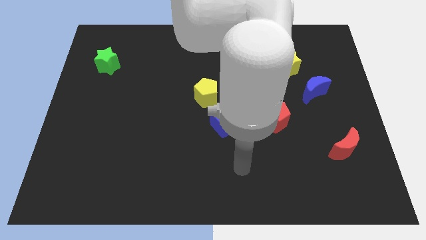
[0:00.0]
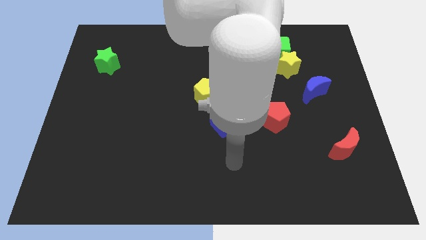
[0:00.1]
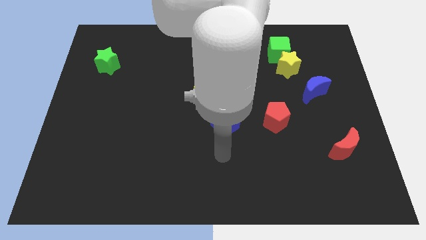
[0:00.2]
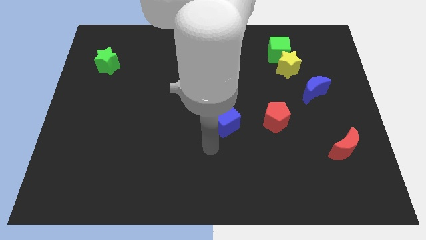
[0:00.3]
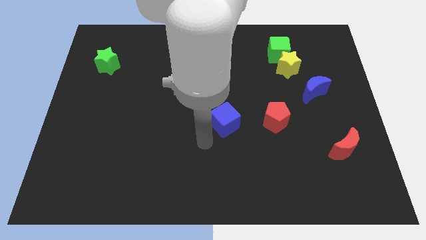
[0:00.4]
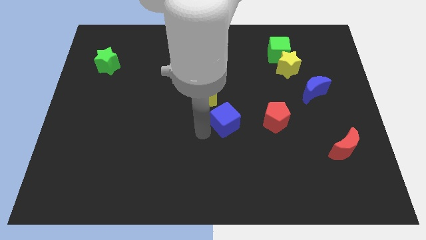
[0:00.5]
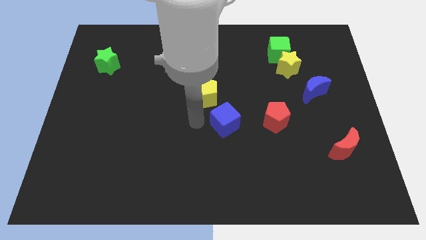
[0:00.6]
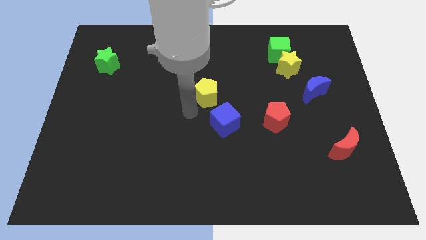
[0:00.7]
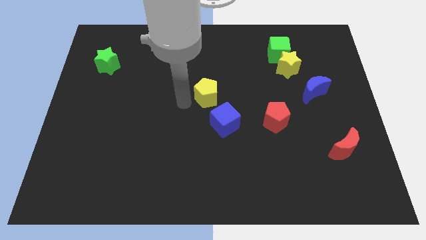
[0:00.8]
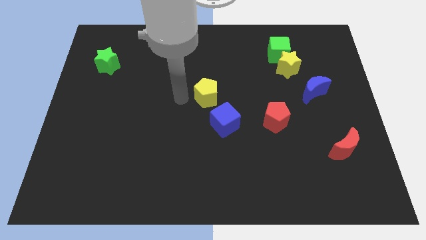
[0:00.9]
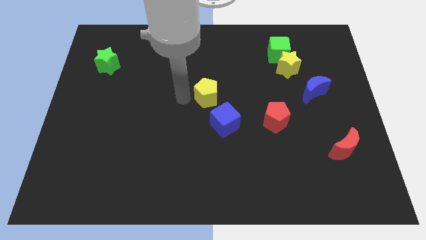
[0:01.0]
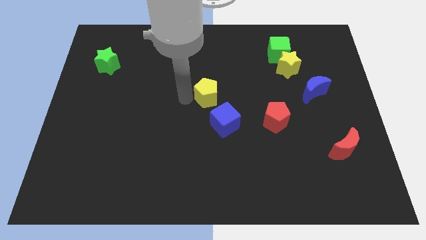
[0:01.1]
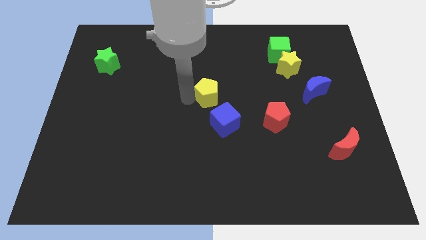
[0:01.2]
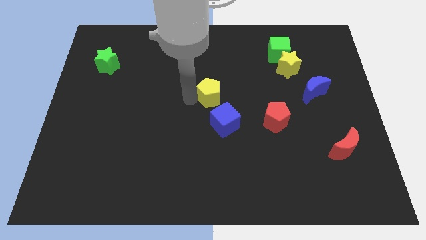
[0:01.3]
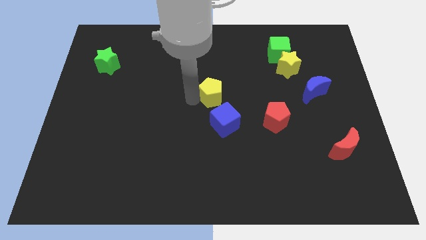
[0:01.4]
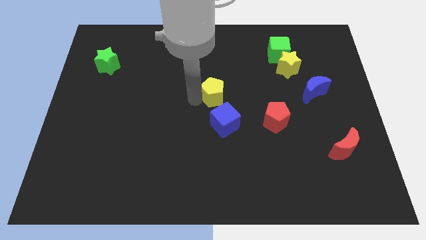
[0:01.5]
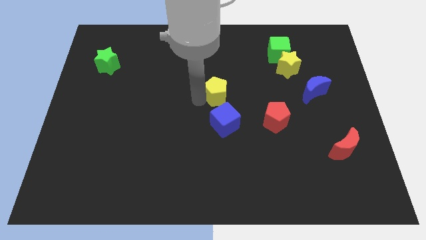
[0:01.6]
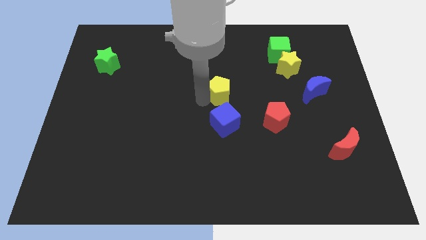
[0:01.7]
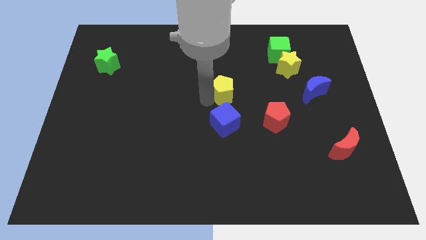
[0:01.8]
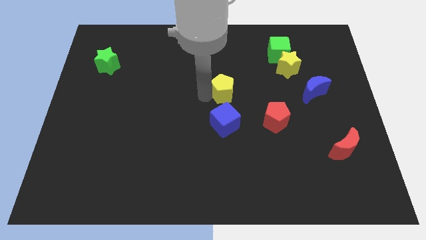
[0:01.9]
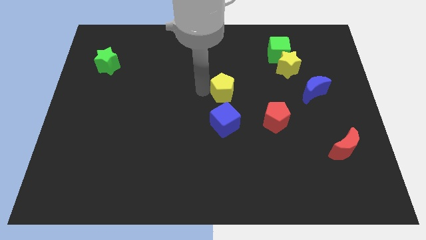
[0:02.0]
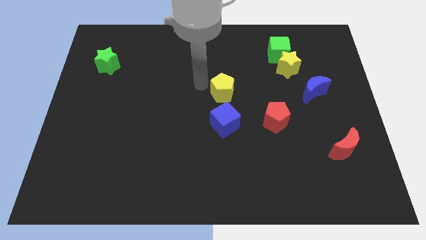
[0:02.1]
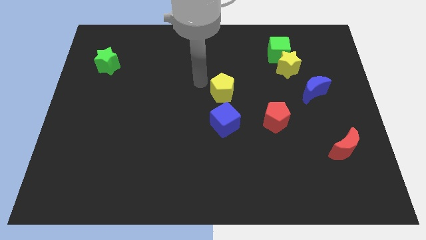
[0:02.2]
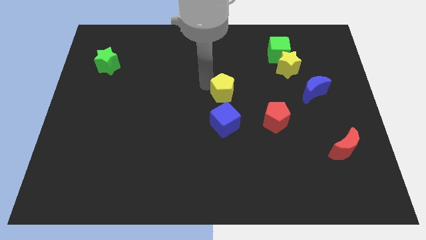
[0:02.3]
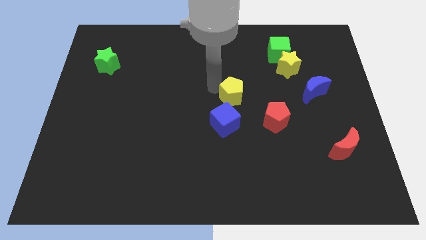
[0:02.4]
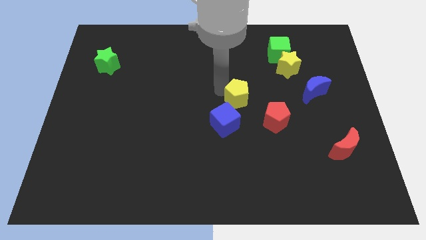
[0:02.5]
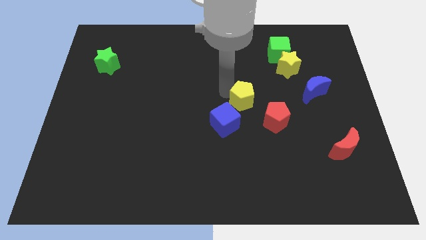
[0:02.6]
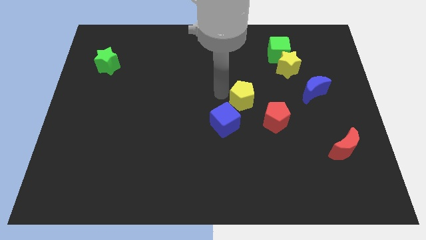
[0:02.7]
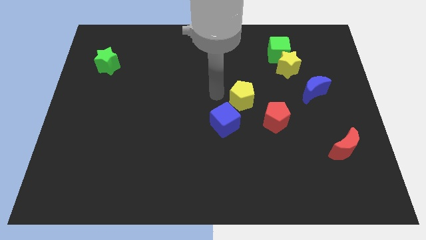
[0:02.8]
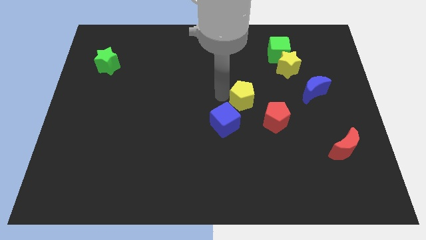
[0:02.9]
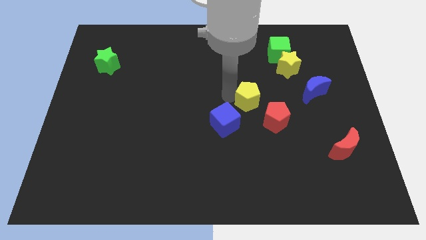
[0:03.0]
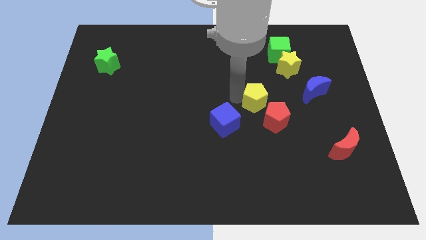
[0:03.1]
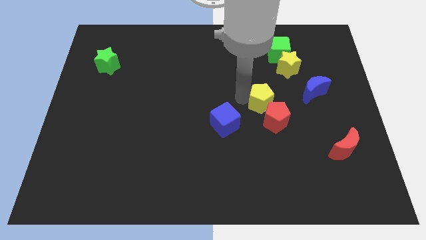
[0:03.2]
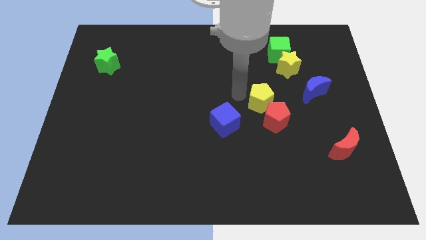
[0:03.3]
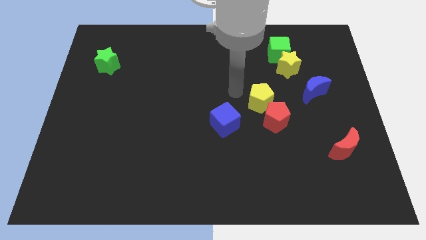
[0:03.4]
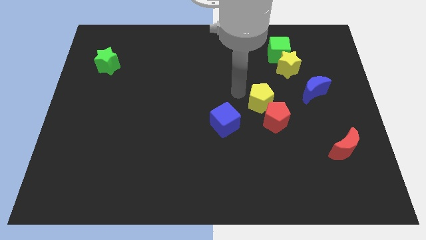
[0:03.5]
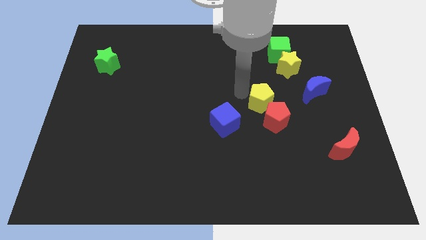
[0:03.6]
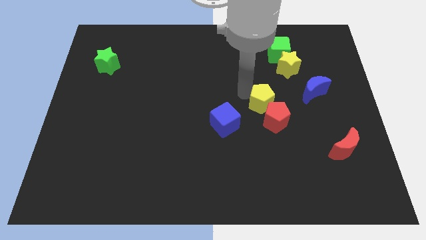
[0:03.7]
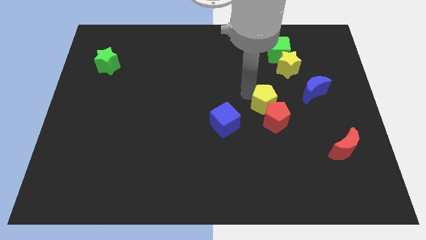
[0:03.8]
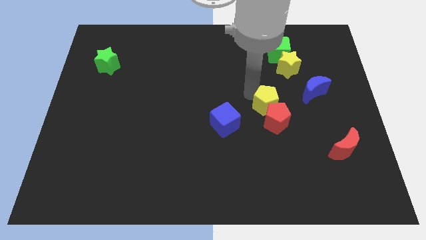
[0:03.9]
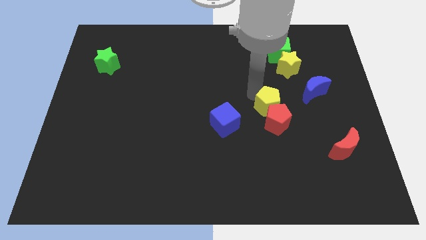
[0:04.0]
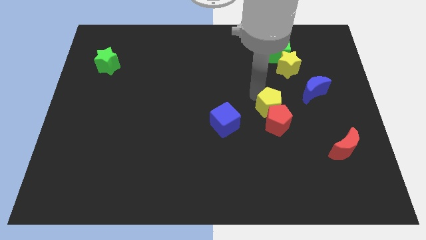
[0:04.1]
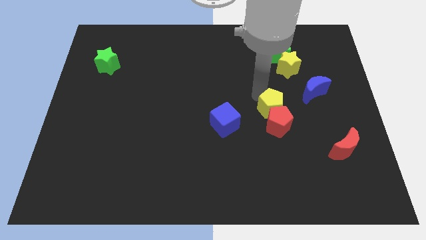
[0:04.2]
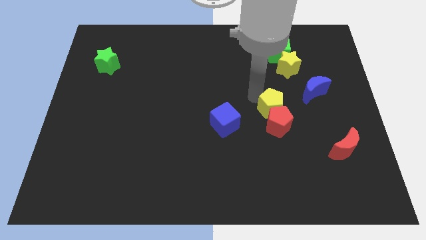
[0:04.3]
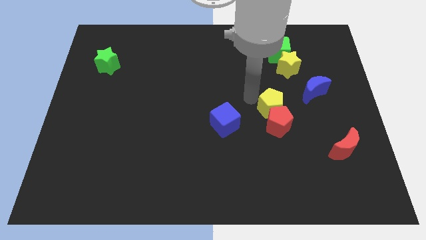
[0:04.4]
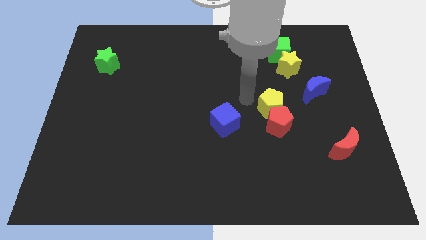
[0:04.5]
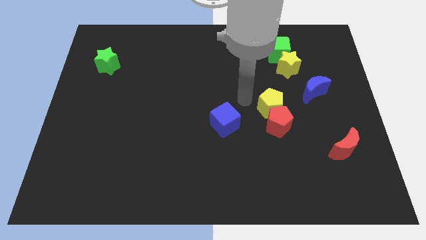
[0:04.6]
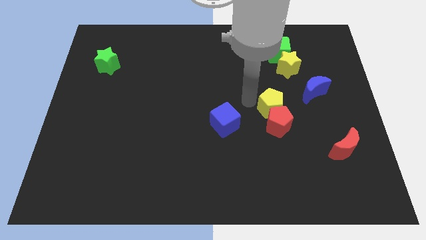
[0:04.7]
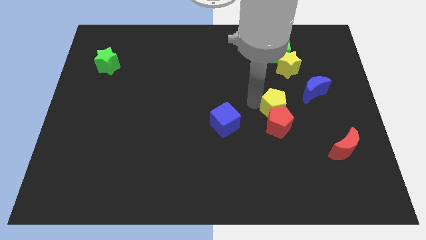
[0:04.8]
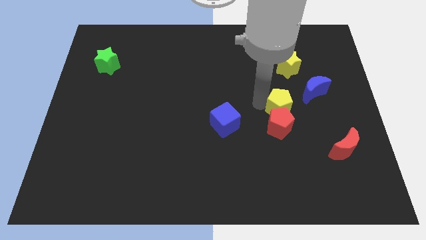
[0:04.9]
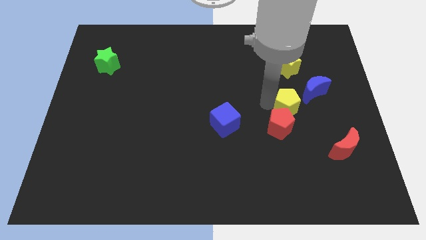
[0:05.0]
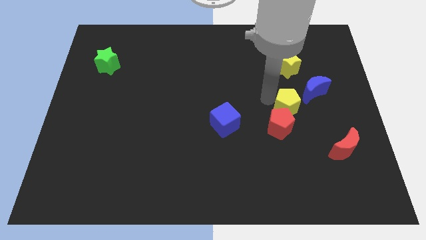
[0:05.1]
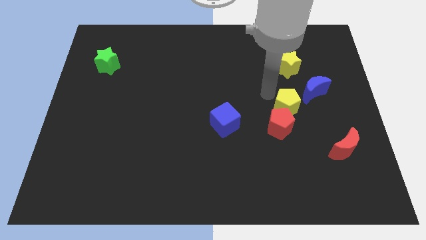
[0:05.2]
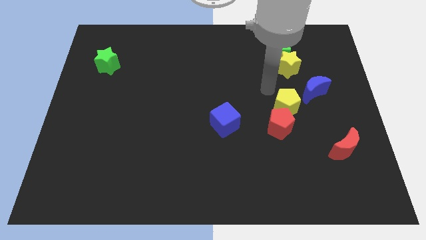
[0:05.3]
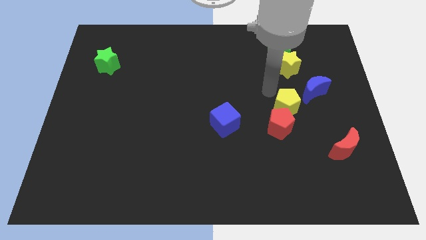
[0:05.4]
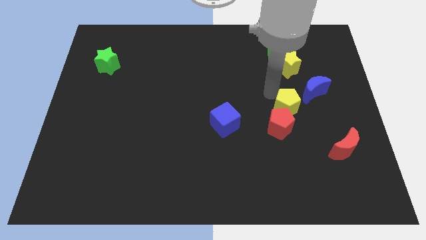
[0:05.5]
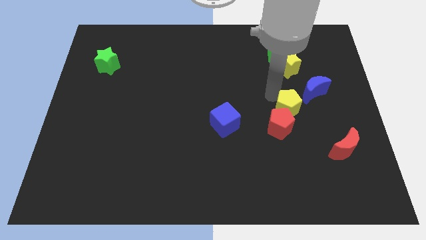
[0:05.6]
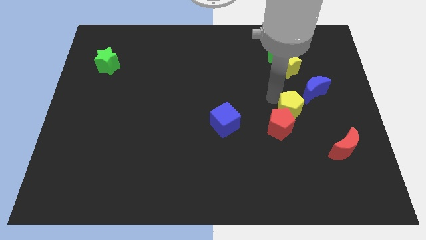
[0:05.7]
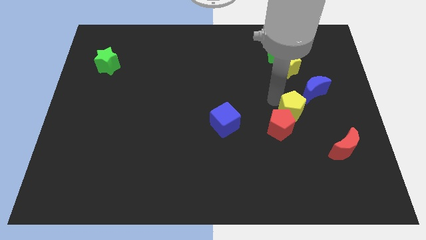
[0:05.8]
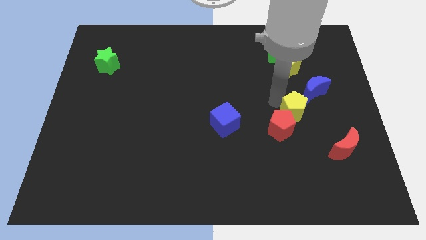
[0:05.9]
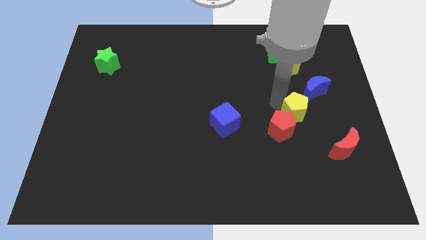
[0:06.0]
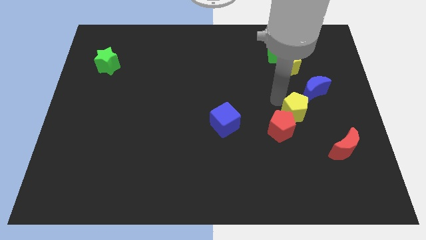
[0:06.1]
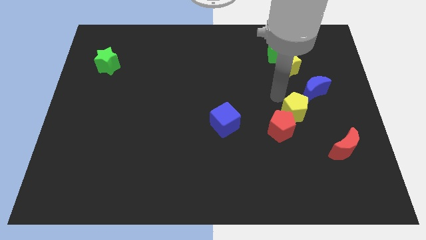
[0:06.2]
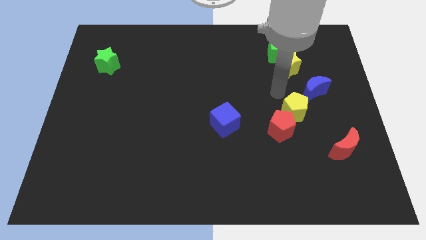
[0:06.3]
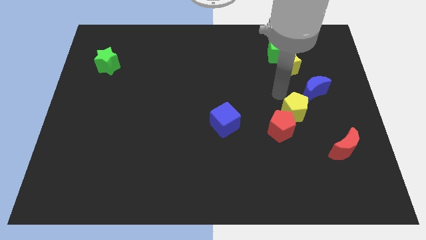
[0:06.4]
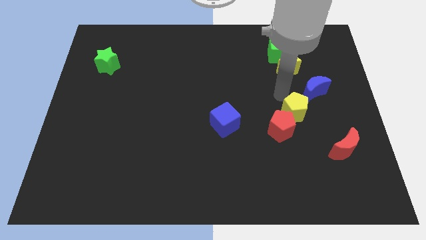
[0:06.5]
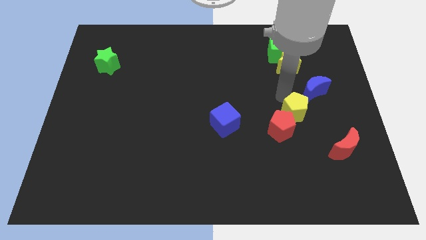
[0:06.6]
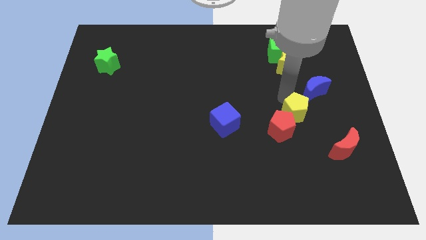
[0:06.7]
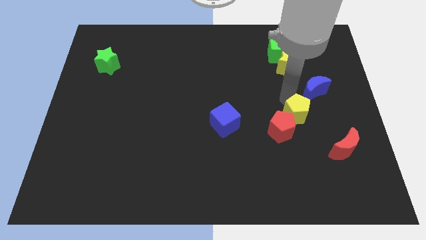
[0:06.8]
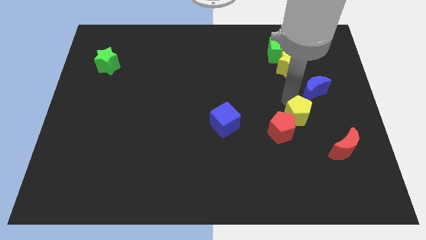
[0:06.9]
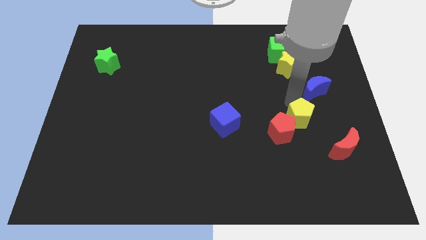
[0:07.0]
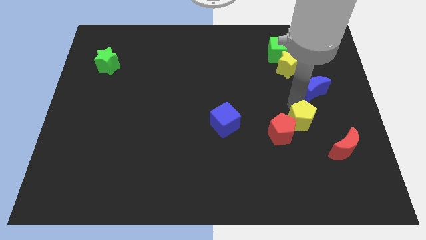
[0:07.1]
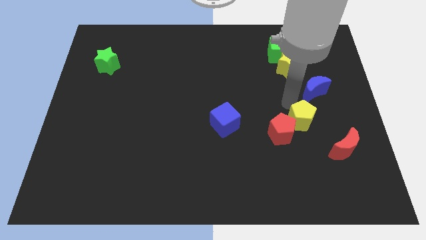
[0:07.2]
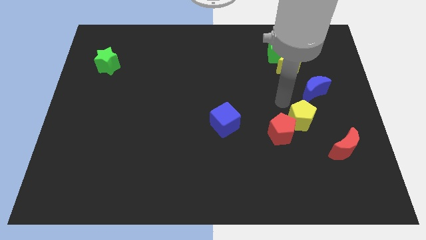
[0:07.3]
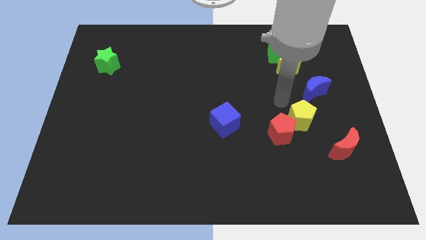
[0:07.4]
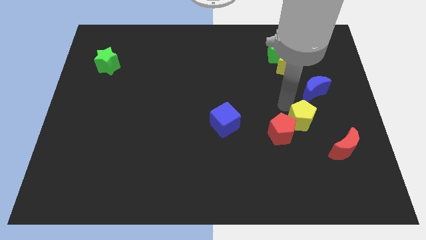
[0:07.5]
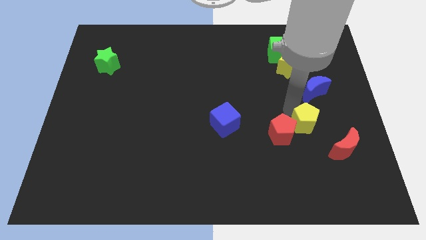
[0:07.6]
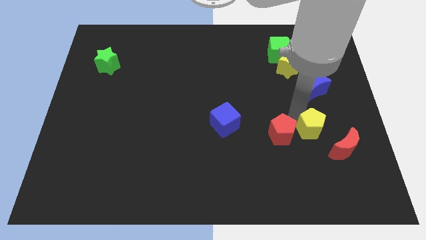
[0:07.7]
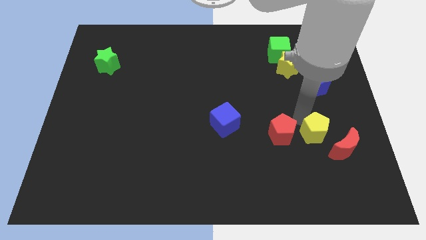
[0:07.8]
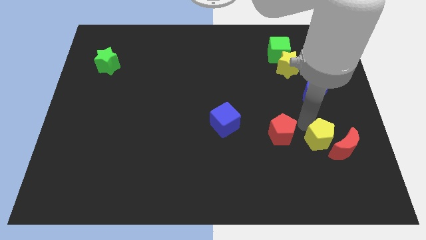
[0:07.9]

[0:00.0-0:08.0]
move the yellow pentagon next to the red moon
